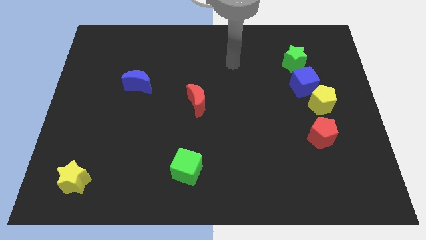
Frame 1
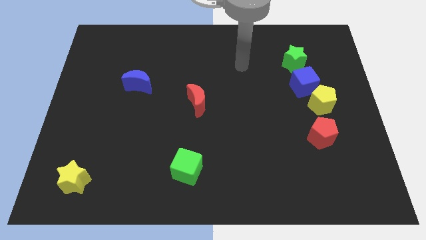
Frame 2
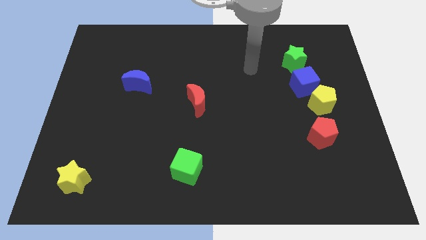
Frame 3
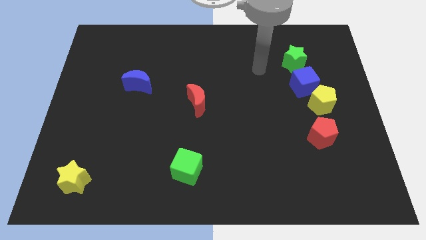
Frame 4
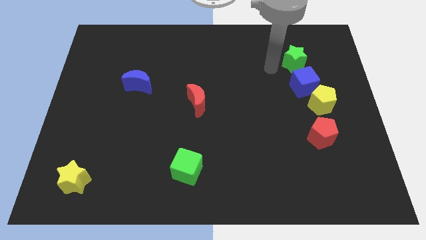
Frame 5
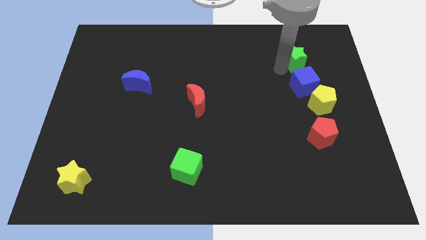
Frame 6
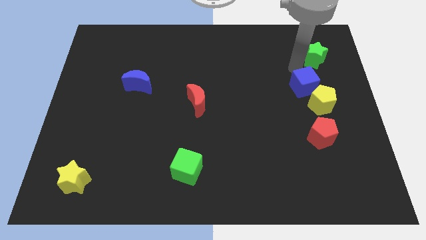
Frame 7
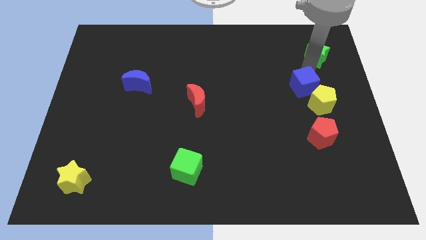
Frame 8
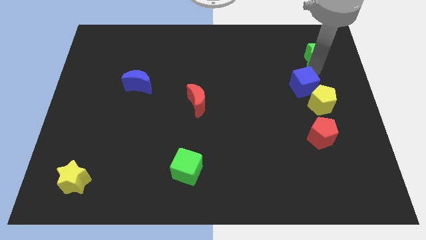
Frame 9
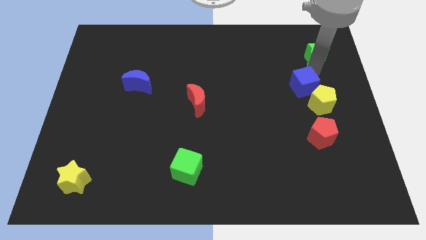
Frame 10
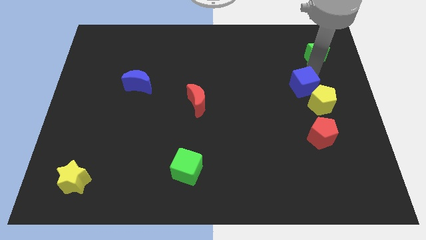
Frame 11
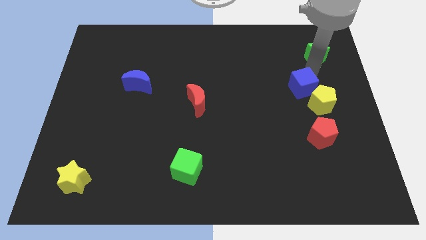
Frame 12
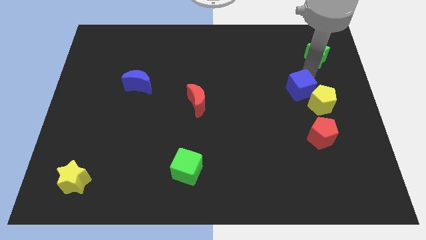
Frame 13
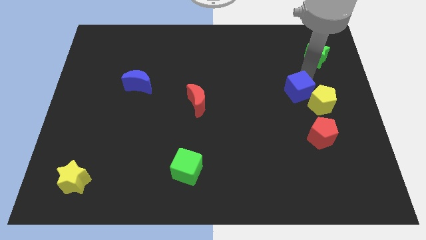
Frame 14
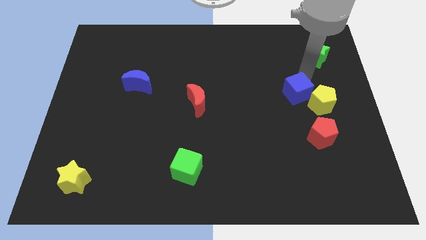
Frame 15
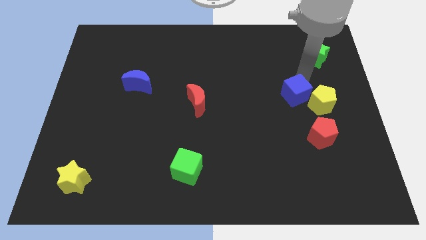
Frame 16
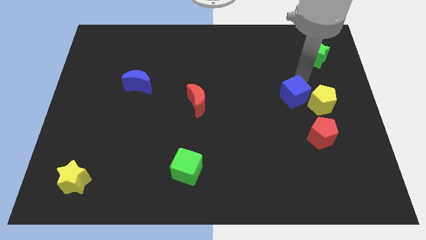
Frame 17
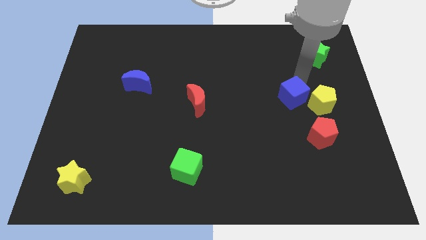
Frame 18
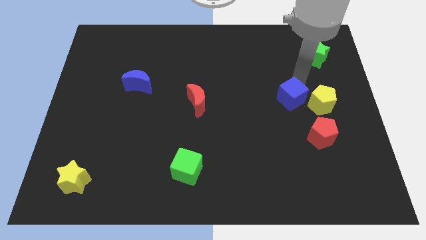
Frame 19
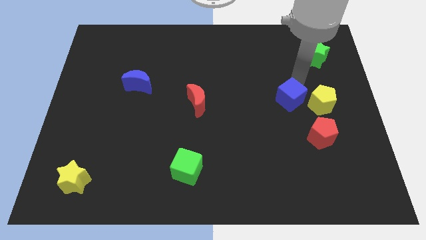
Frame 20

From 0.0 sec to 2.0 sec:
move the blue cube away from the yellow pentagon and green star

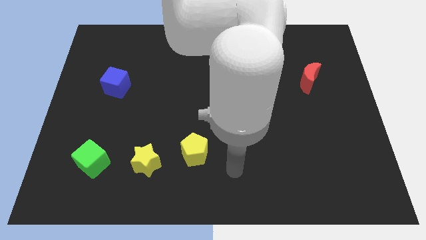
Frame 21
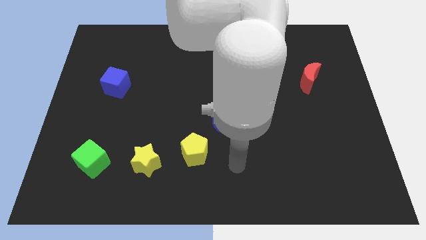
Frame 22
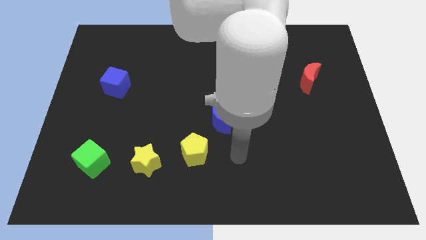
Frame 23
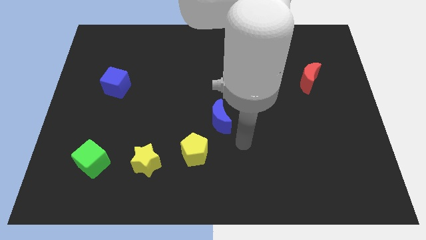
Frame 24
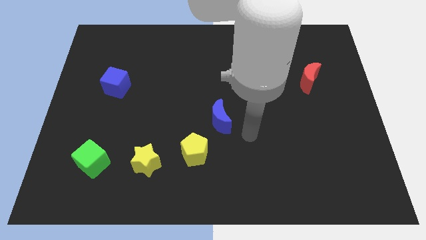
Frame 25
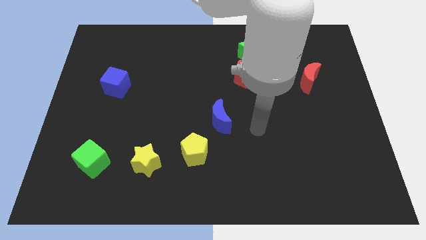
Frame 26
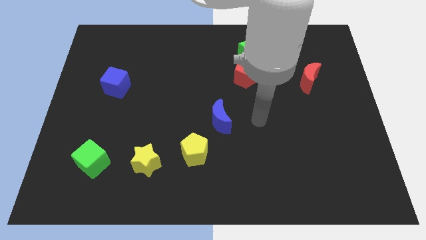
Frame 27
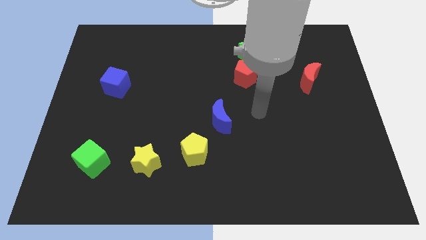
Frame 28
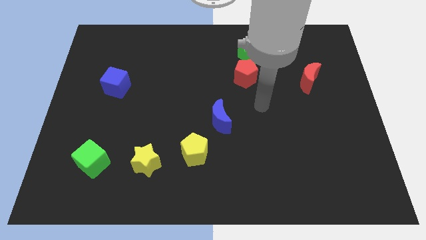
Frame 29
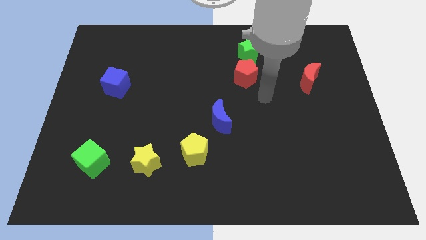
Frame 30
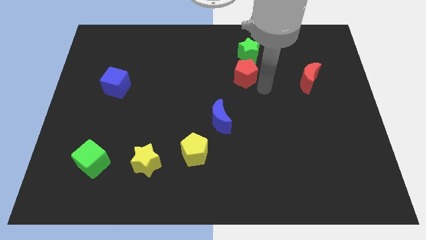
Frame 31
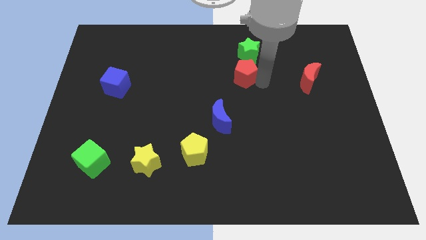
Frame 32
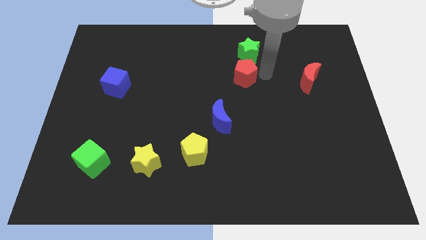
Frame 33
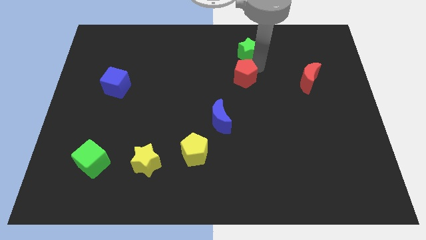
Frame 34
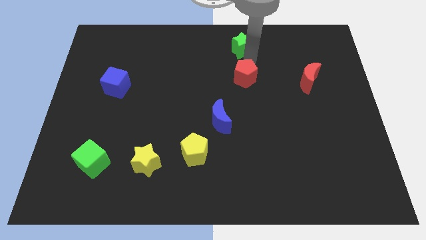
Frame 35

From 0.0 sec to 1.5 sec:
pull the red pentagon apart from the green star

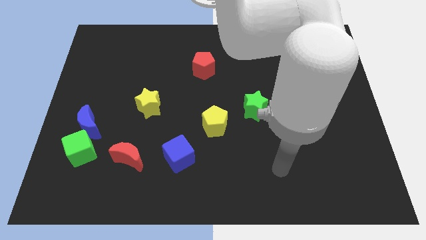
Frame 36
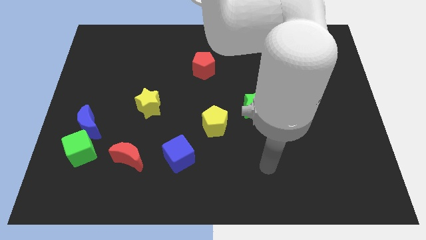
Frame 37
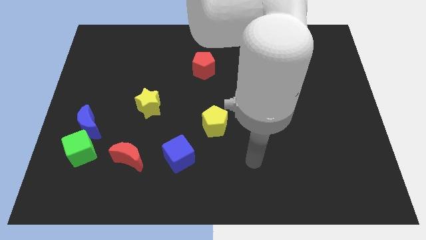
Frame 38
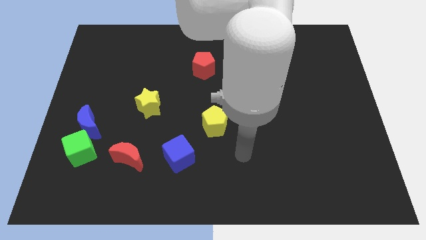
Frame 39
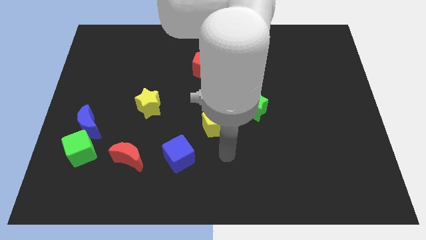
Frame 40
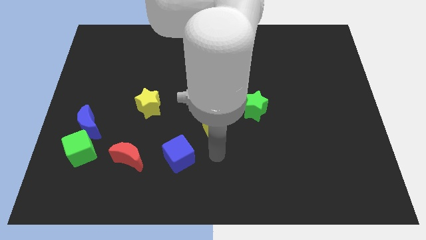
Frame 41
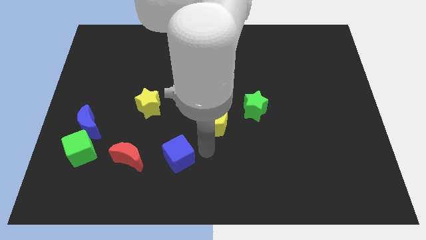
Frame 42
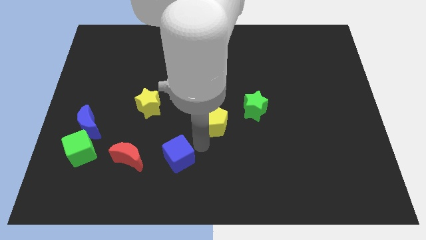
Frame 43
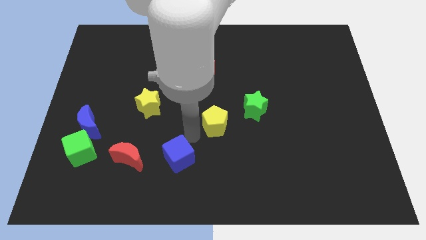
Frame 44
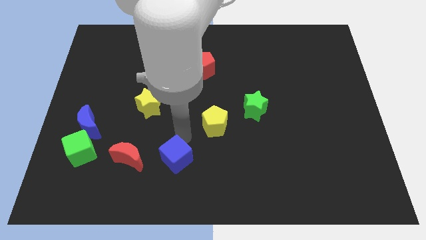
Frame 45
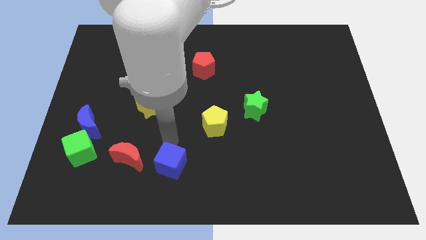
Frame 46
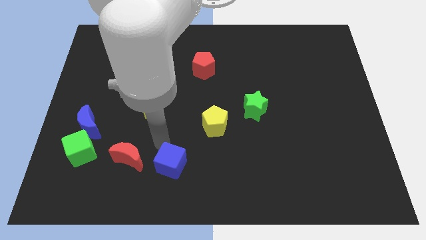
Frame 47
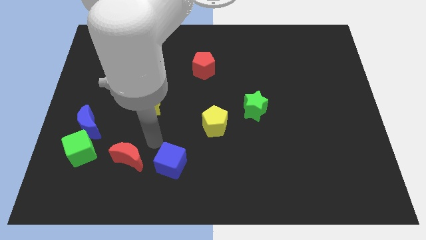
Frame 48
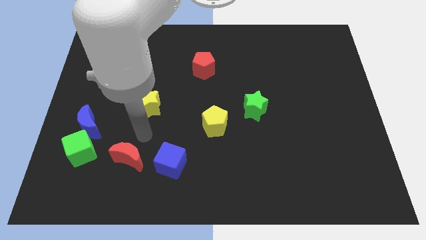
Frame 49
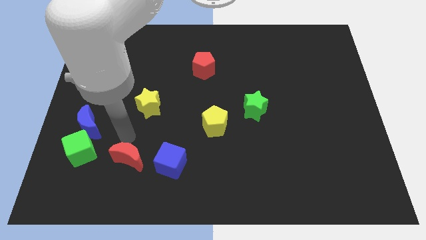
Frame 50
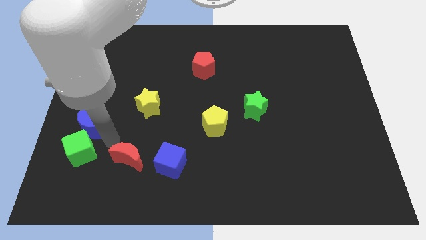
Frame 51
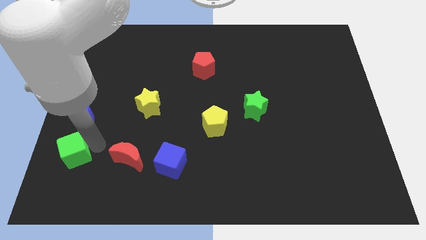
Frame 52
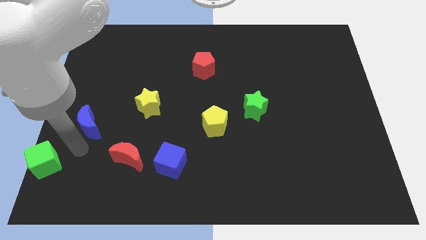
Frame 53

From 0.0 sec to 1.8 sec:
pull the blue moon apart from the green cube

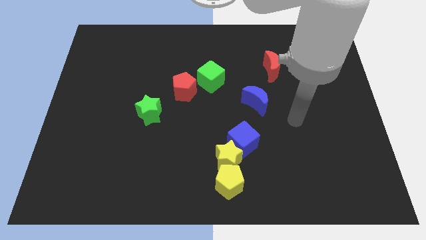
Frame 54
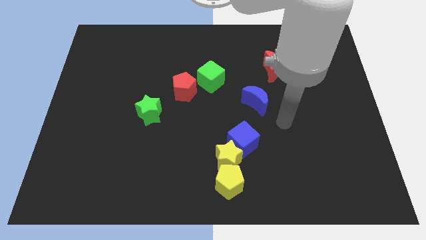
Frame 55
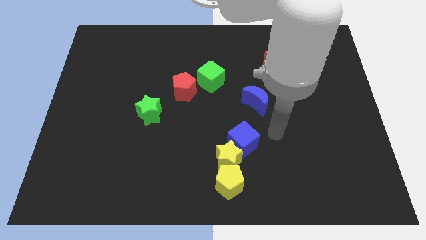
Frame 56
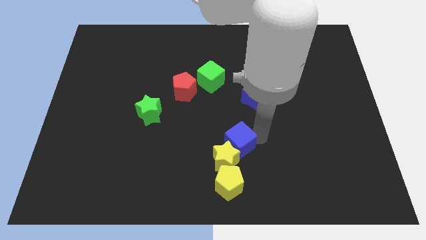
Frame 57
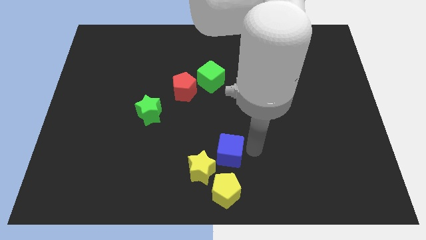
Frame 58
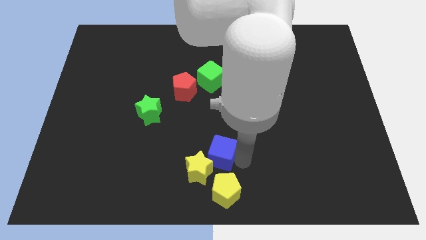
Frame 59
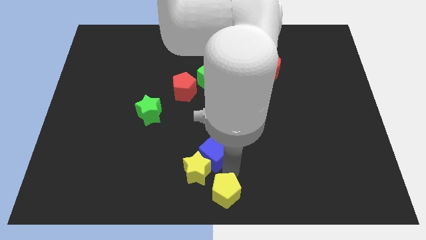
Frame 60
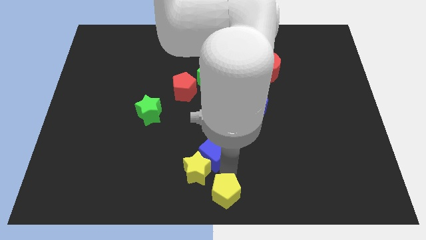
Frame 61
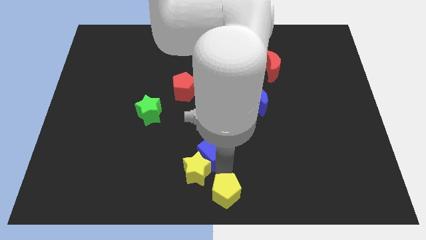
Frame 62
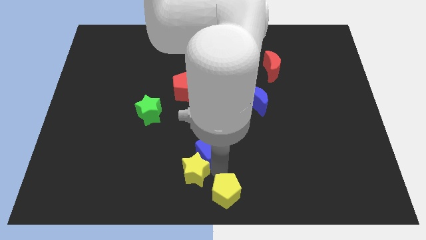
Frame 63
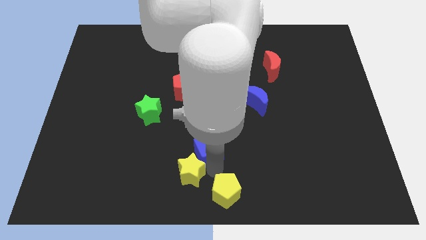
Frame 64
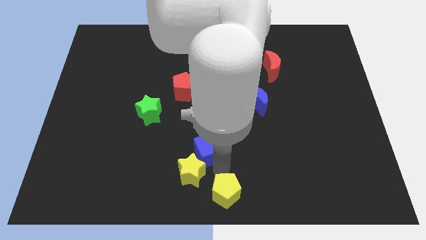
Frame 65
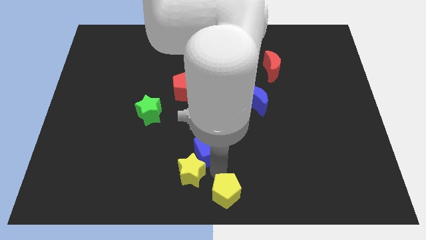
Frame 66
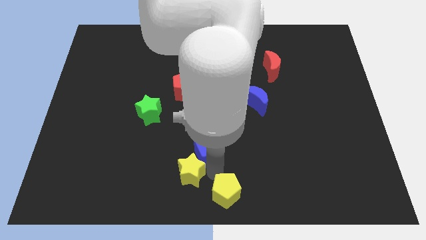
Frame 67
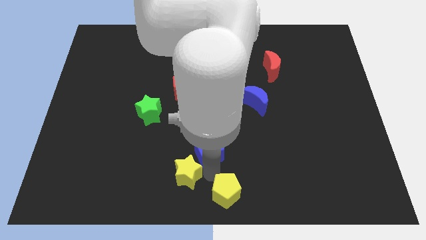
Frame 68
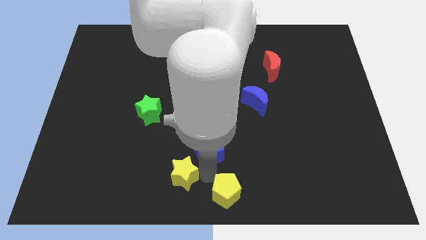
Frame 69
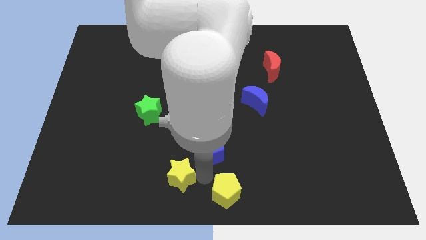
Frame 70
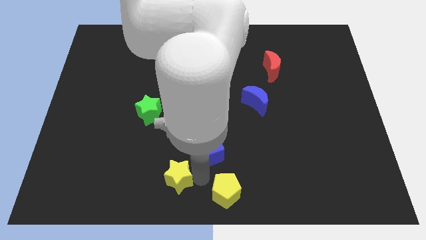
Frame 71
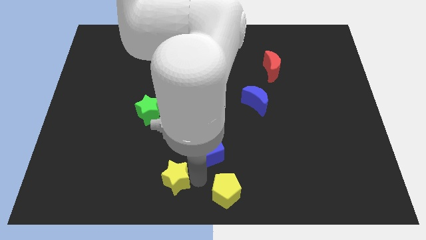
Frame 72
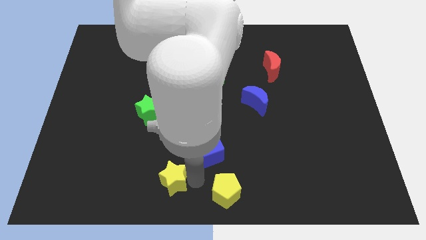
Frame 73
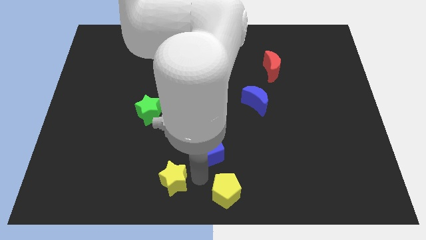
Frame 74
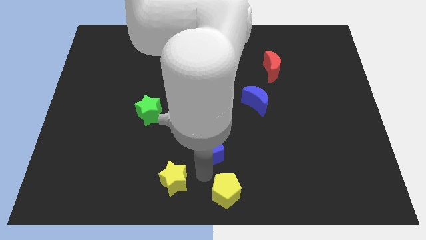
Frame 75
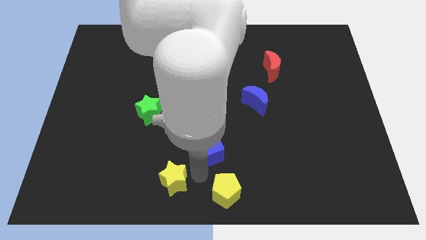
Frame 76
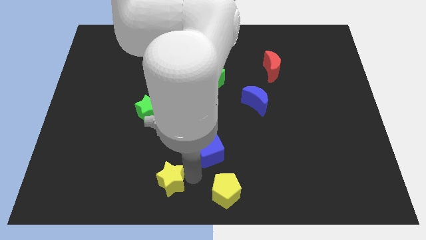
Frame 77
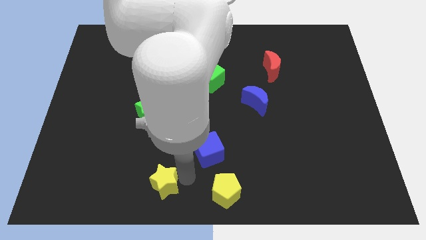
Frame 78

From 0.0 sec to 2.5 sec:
move the yellow star away from the yellow pentagon and blue cube

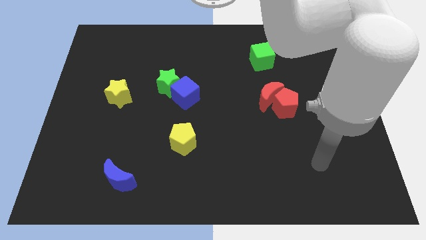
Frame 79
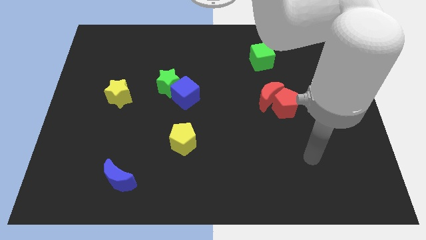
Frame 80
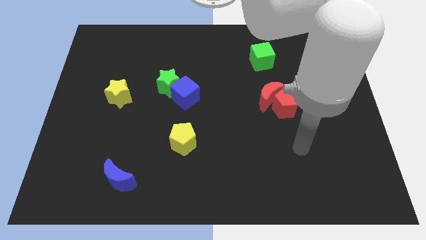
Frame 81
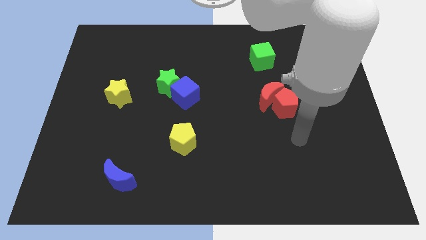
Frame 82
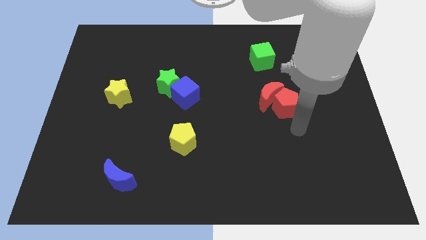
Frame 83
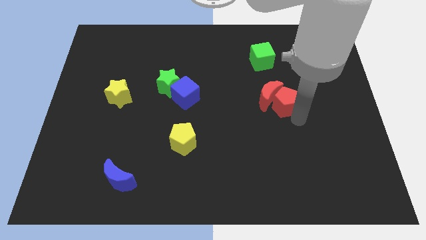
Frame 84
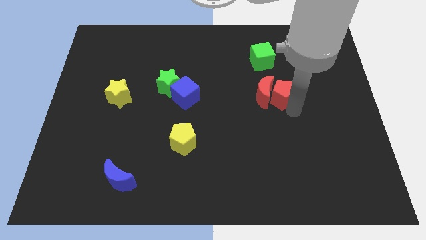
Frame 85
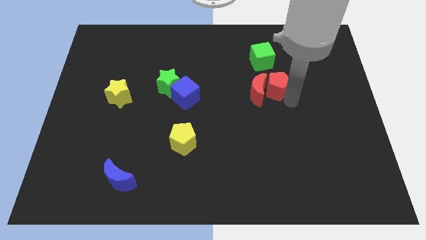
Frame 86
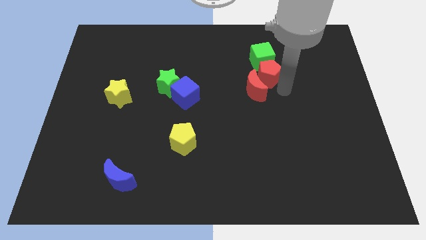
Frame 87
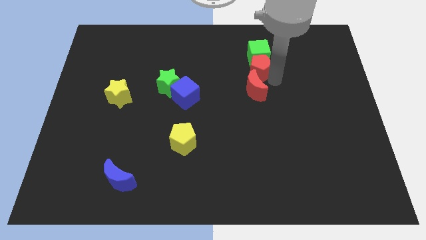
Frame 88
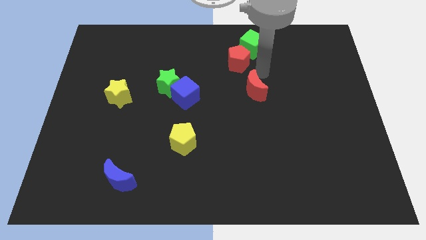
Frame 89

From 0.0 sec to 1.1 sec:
move the red moon away from the red pentagon

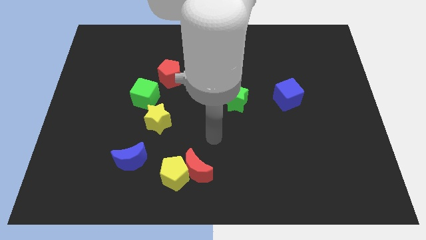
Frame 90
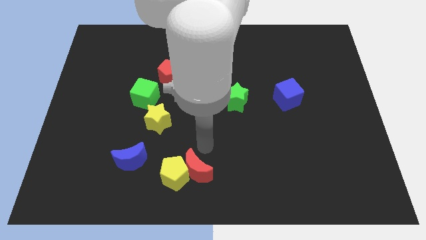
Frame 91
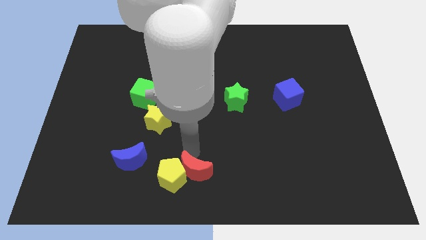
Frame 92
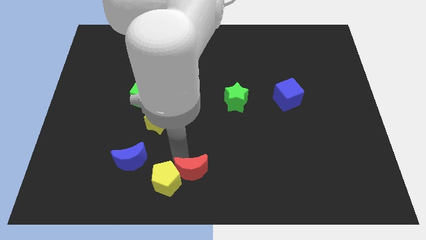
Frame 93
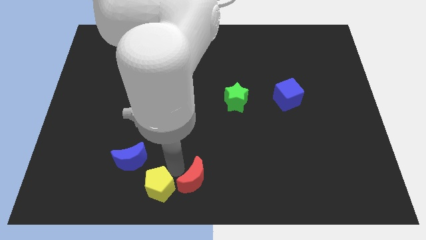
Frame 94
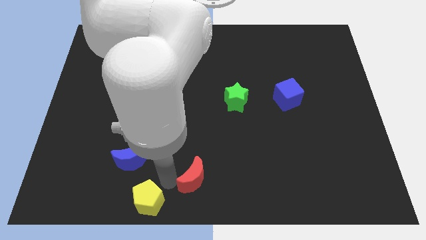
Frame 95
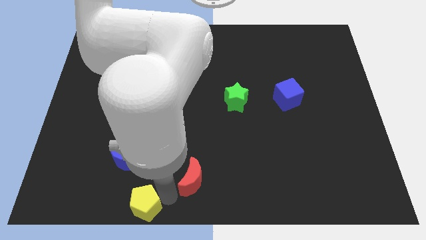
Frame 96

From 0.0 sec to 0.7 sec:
separate the red moon from the yellow pentagon
